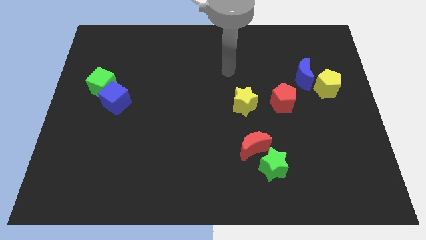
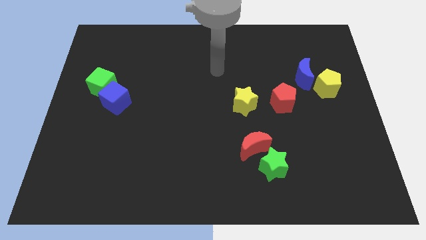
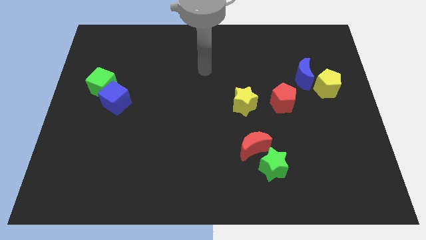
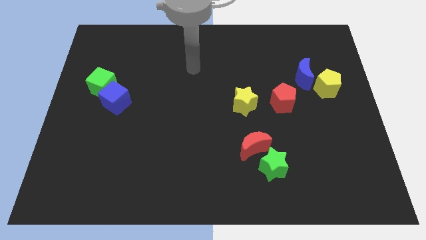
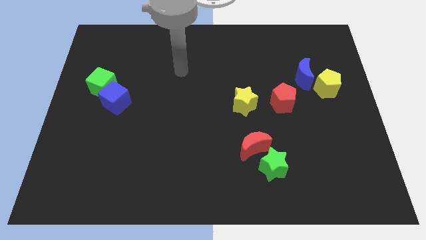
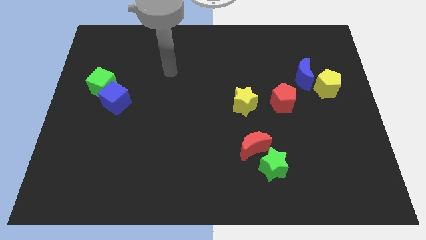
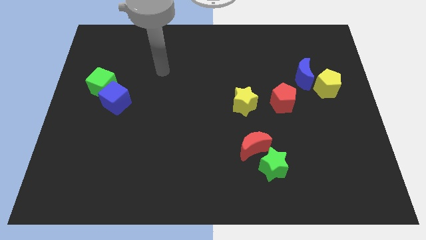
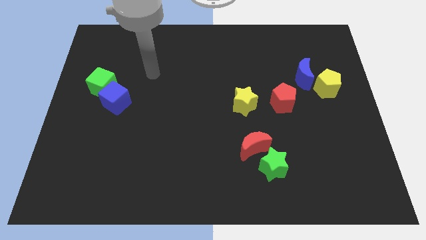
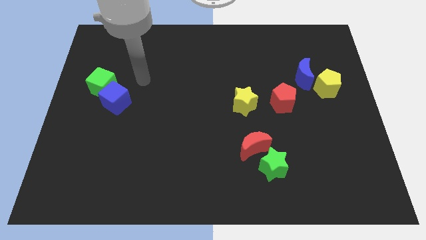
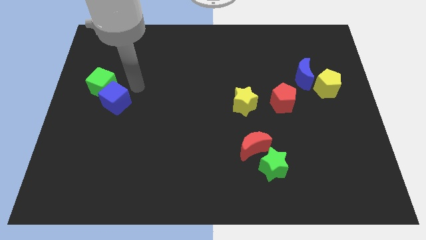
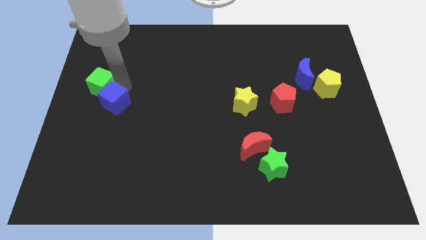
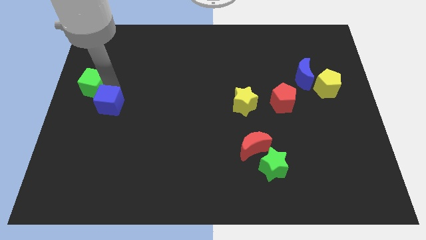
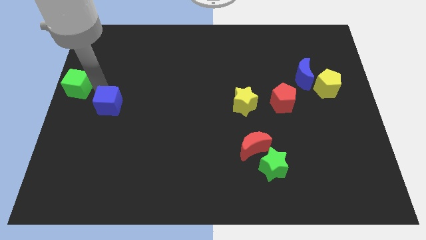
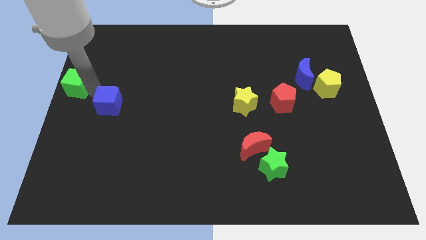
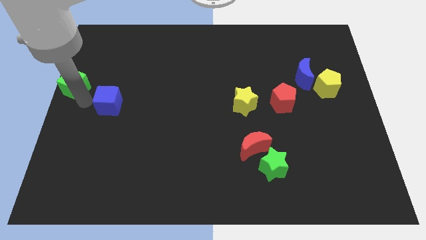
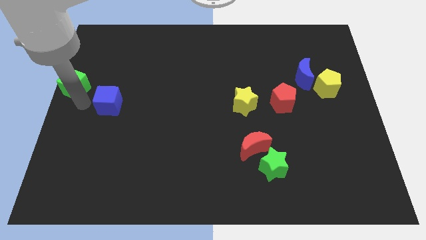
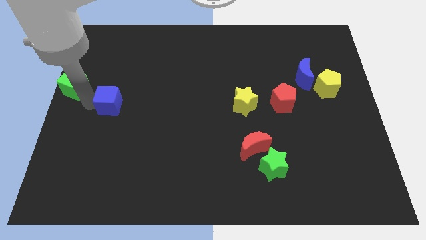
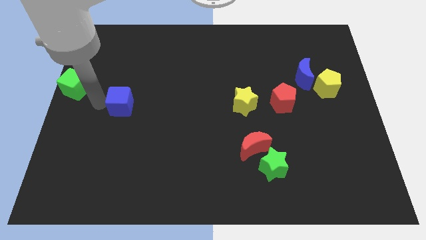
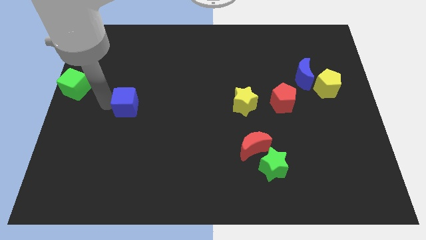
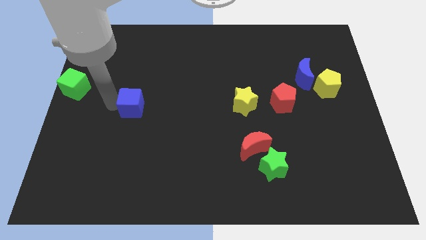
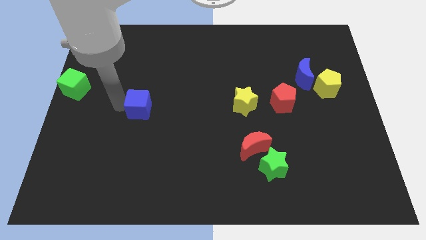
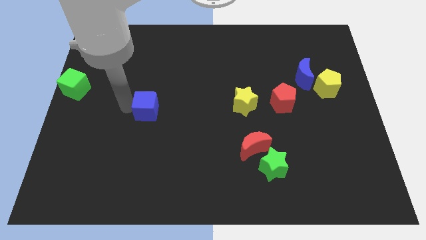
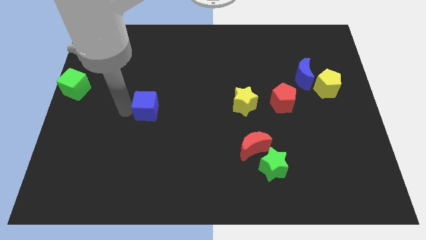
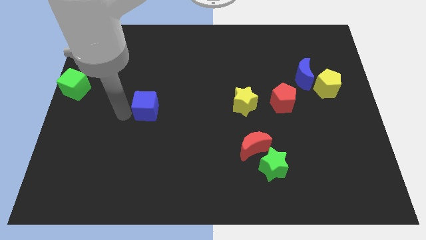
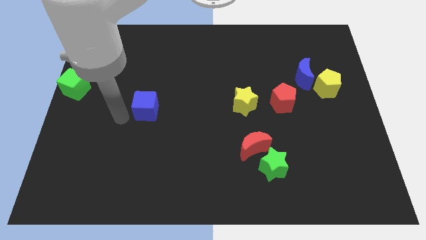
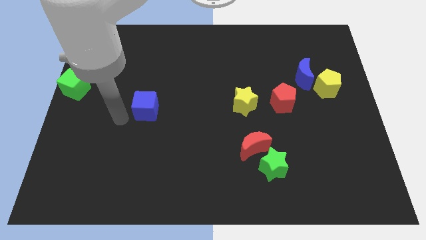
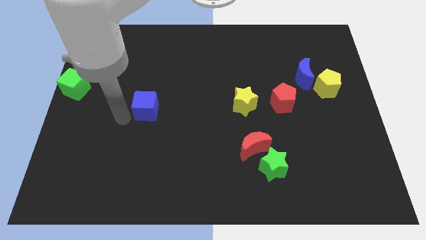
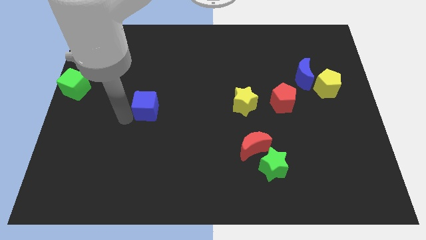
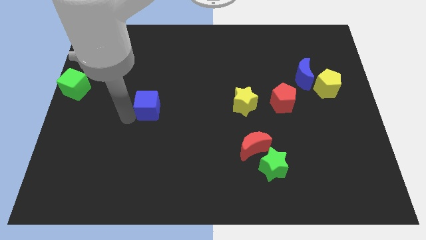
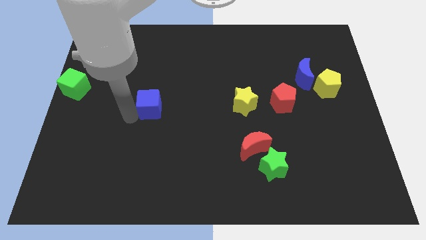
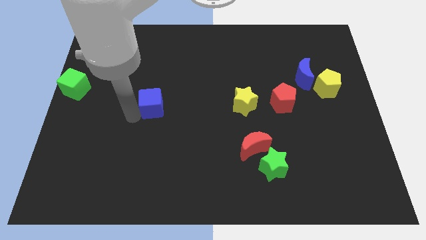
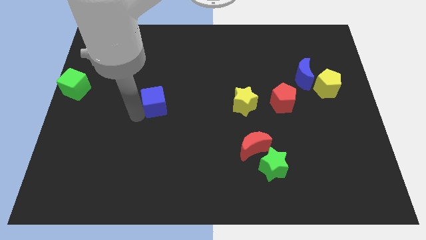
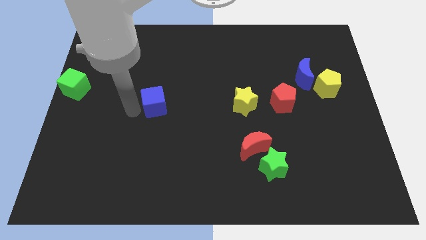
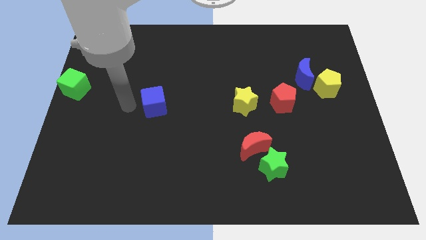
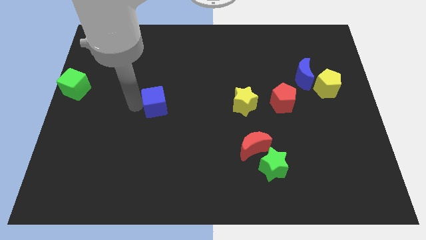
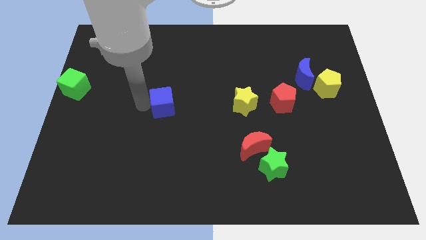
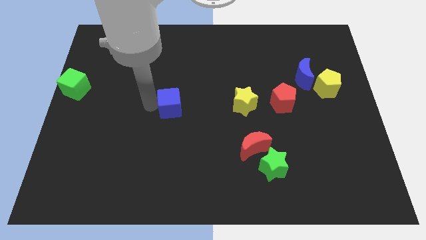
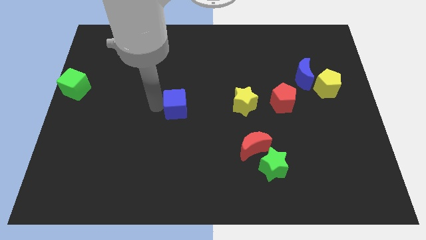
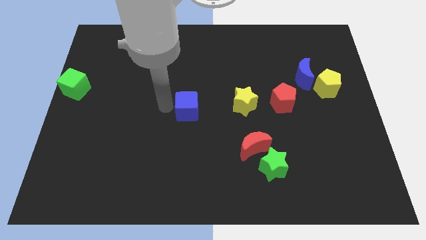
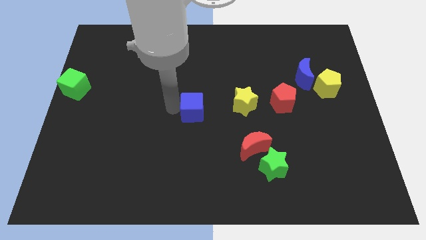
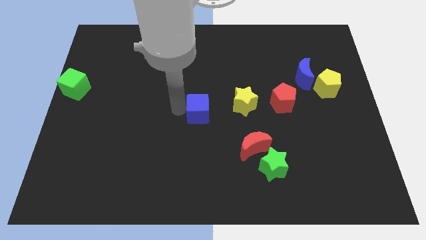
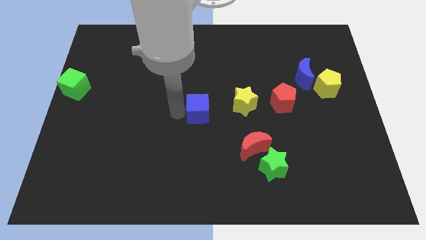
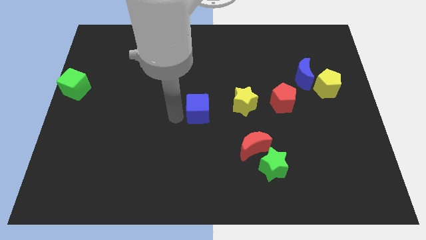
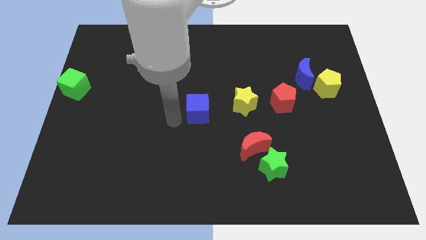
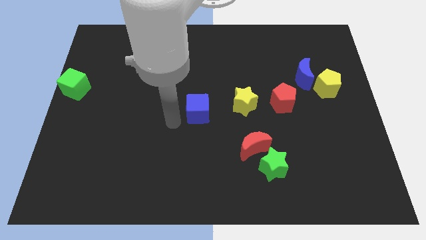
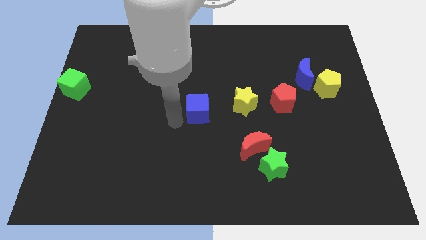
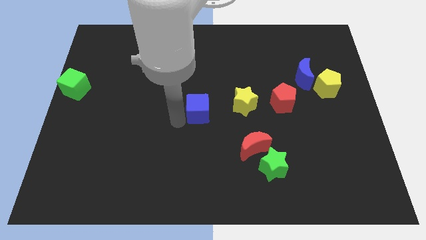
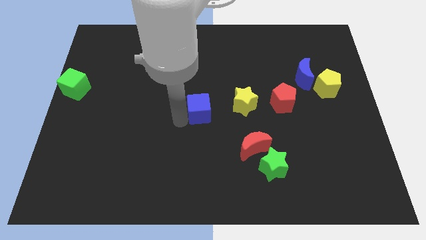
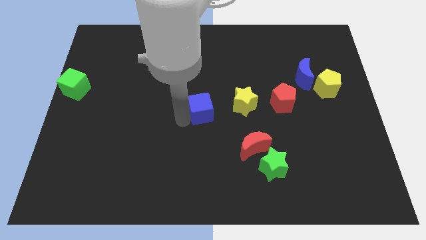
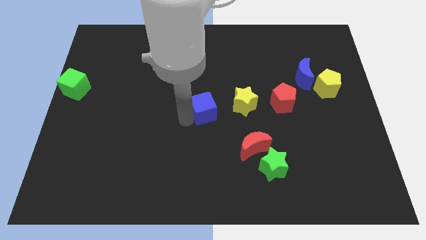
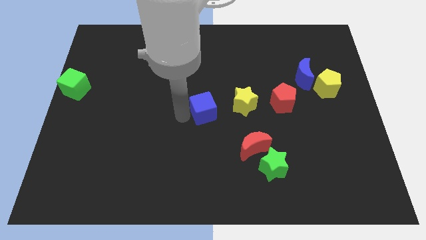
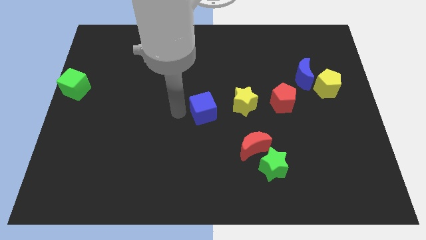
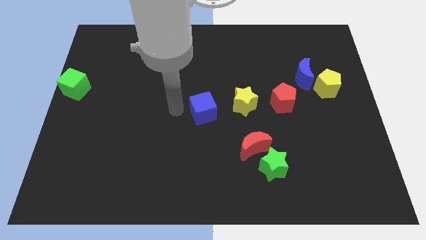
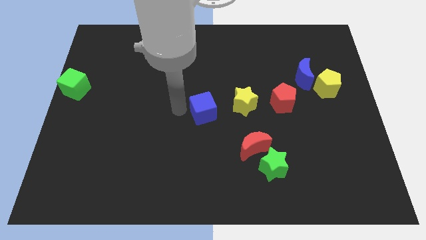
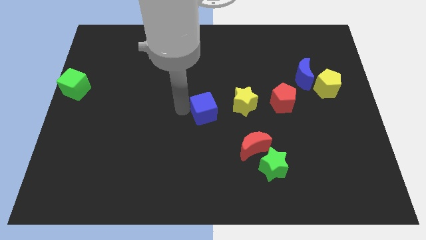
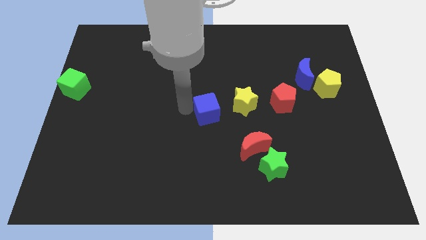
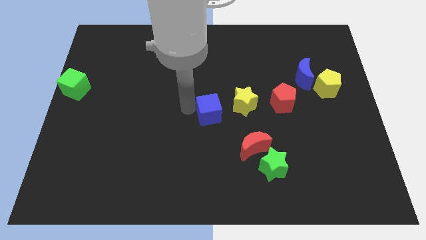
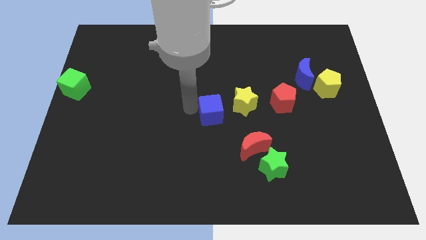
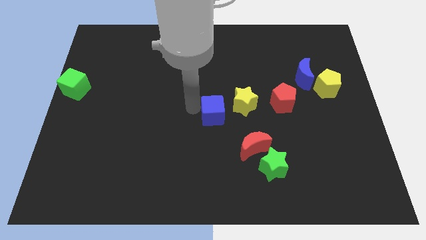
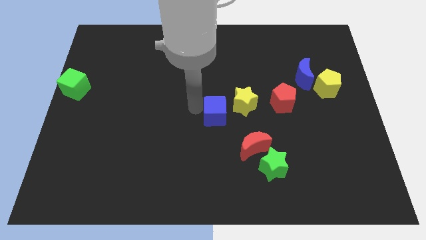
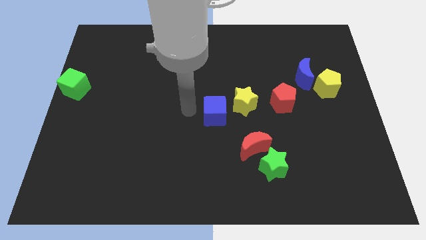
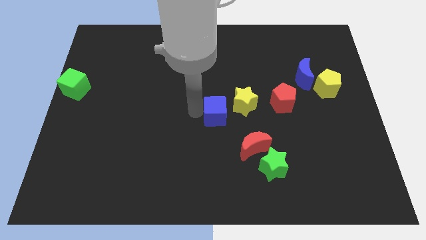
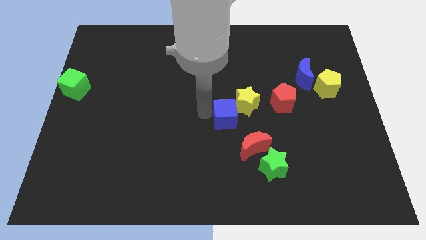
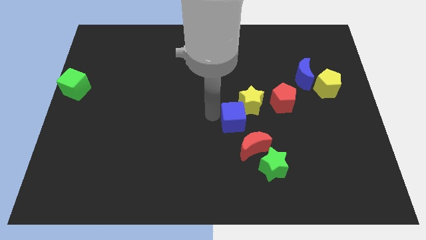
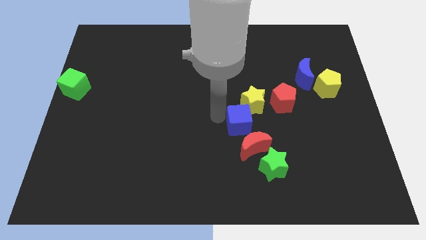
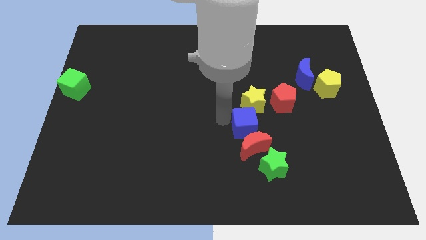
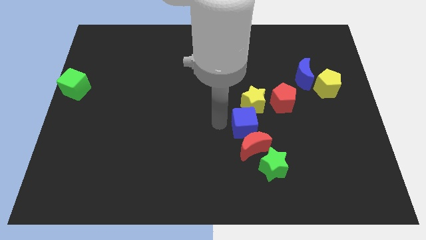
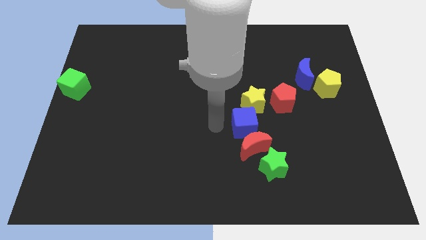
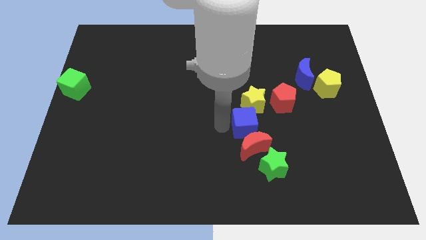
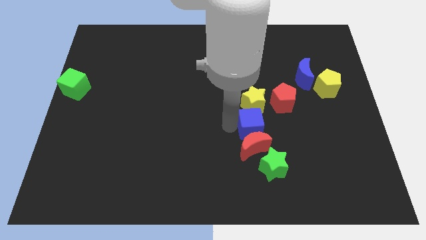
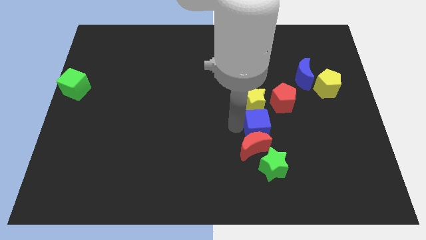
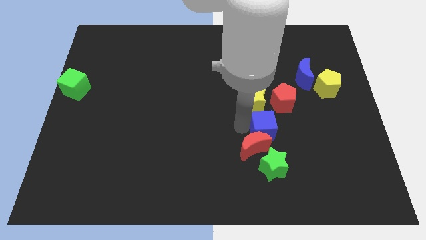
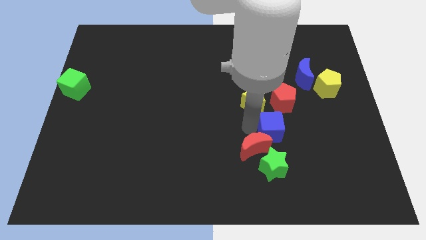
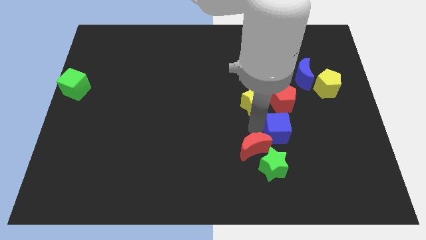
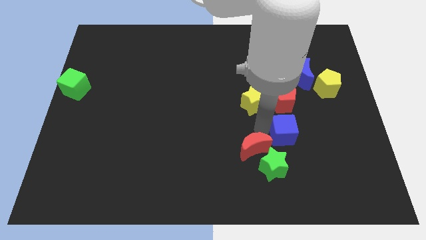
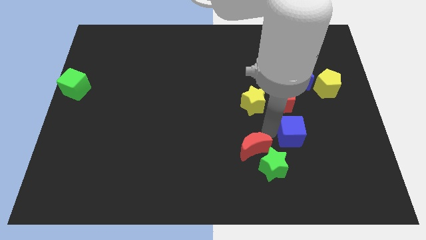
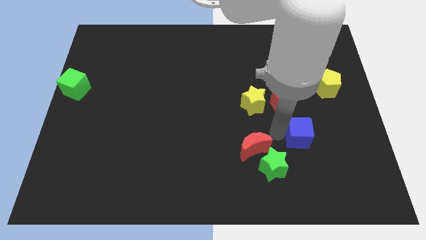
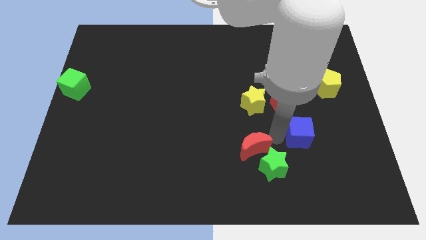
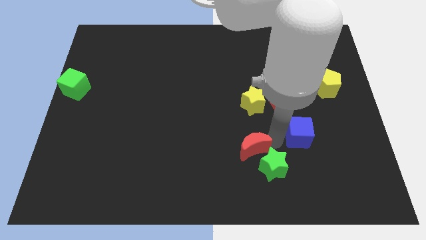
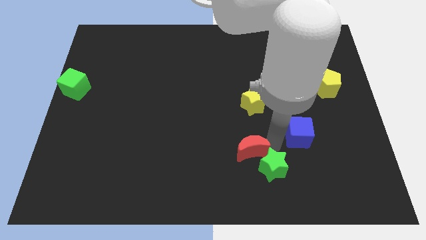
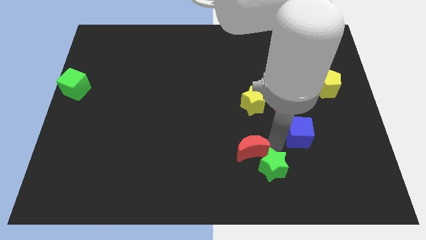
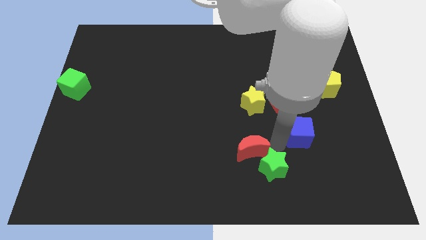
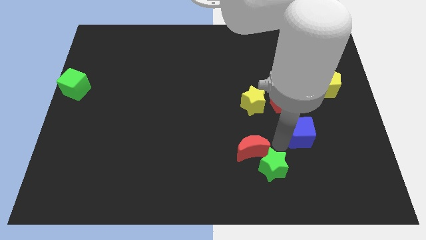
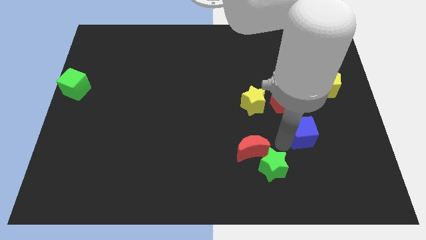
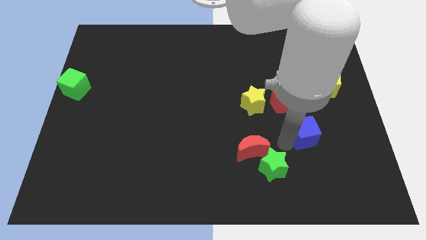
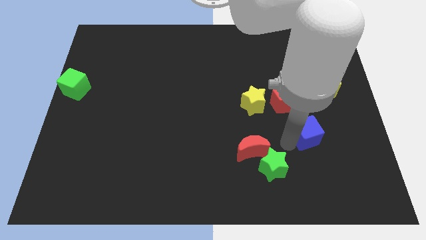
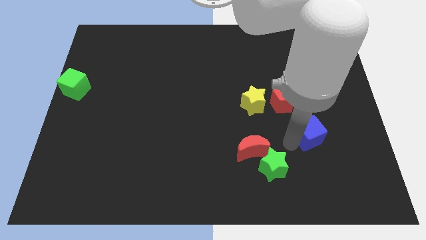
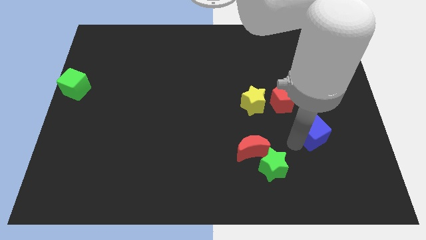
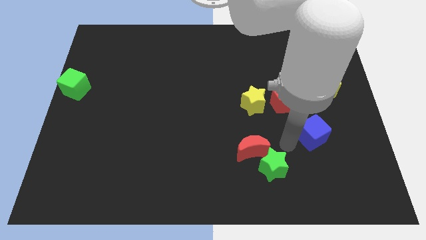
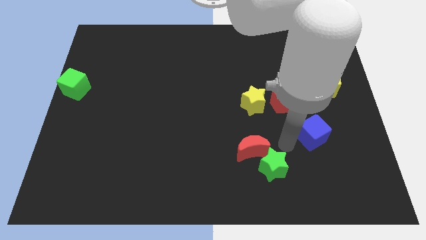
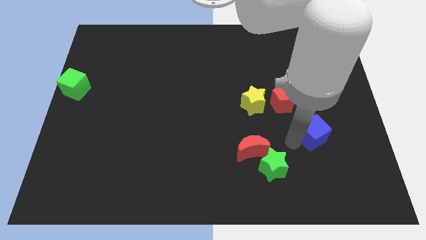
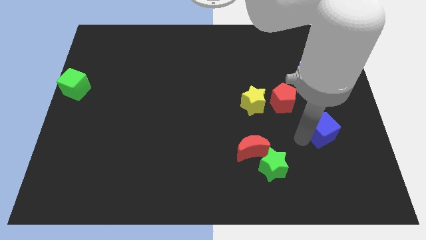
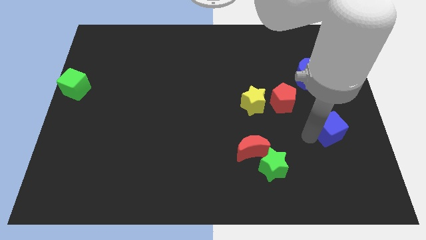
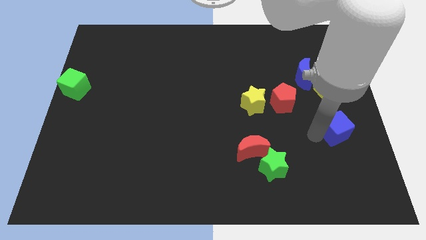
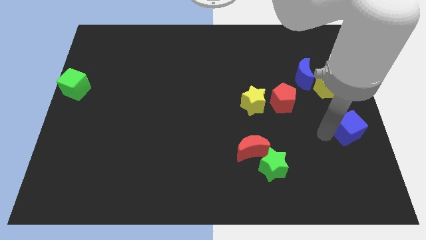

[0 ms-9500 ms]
push the blue cube to the right side of the board
